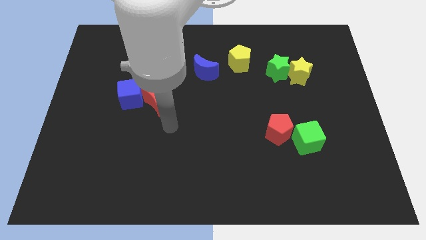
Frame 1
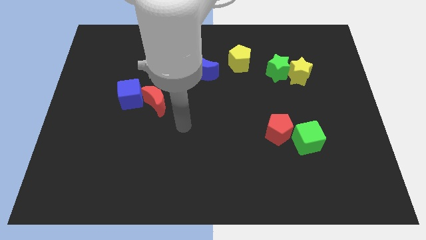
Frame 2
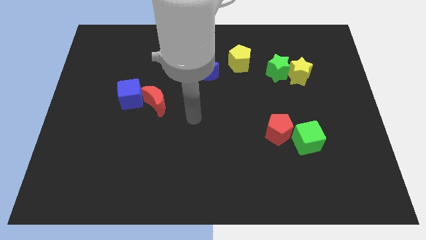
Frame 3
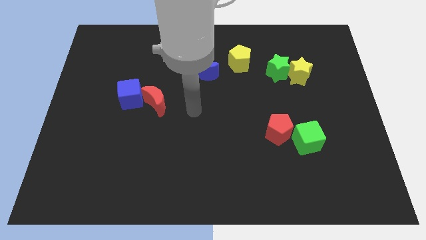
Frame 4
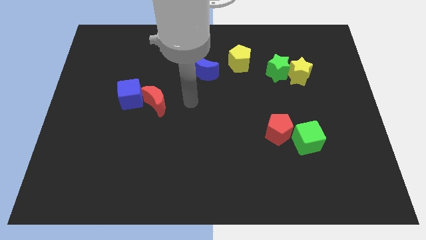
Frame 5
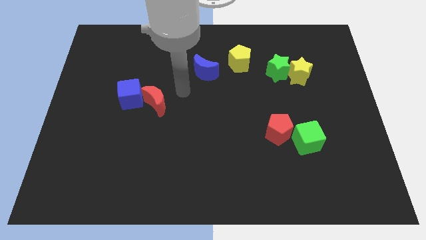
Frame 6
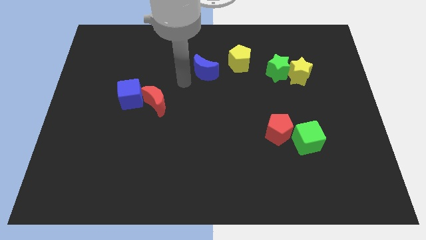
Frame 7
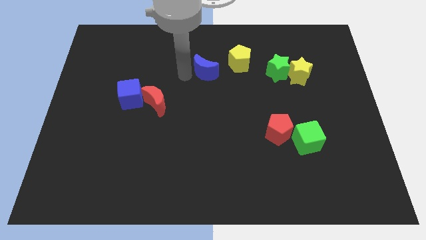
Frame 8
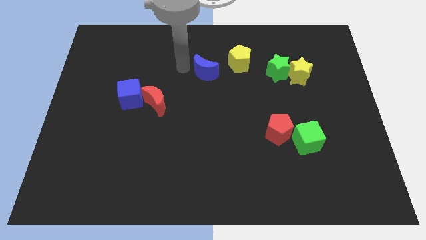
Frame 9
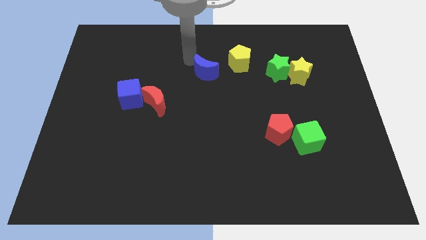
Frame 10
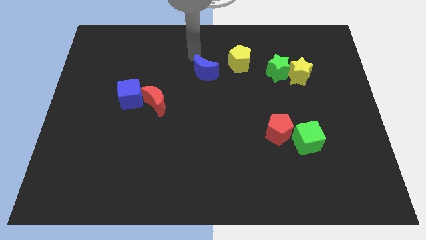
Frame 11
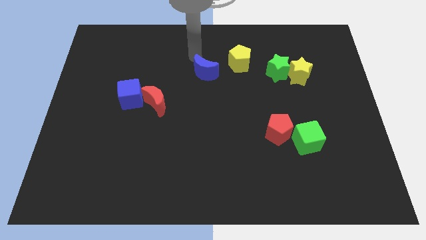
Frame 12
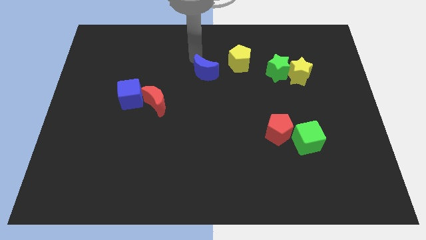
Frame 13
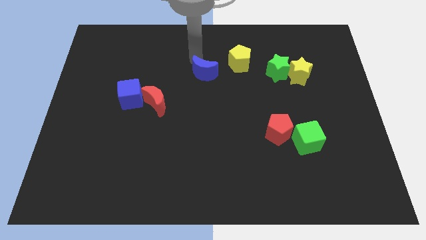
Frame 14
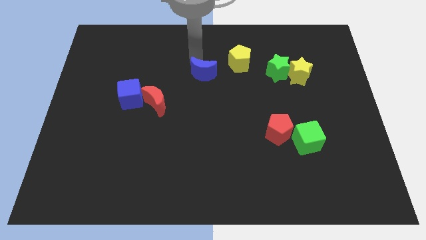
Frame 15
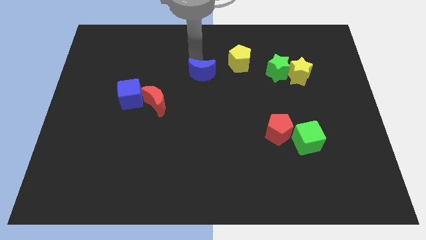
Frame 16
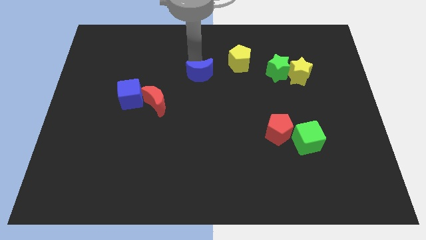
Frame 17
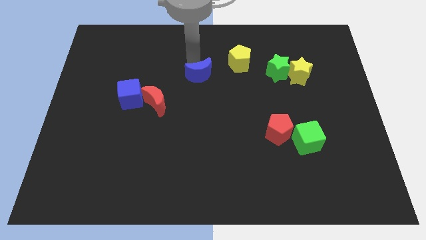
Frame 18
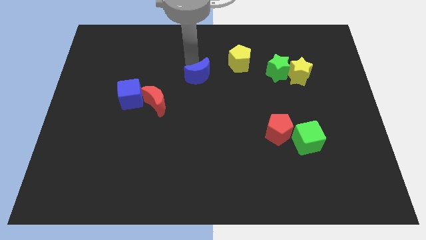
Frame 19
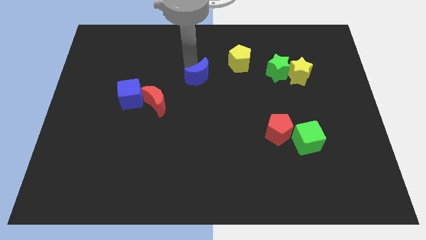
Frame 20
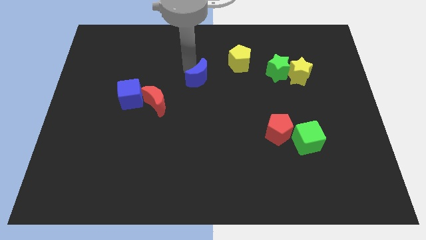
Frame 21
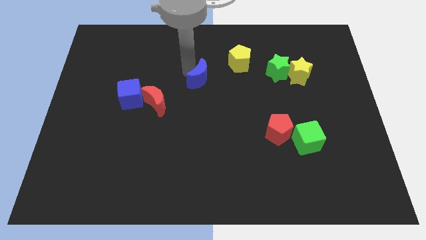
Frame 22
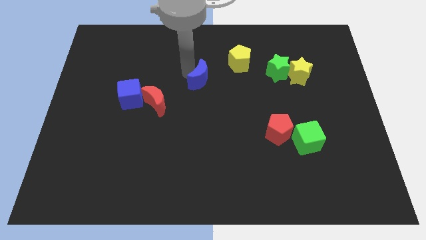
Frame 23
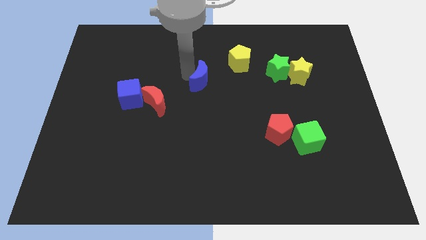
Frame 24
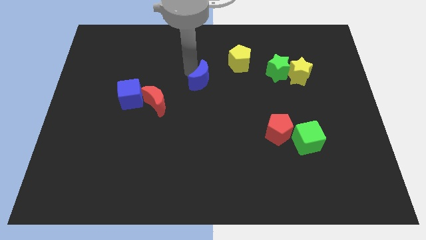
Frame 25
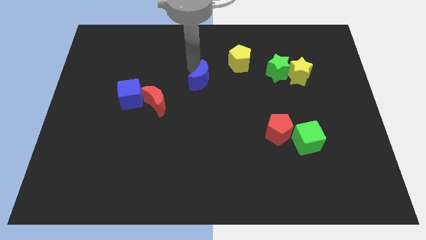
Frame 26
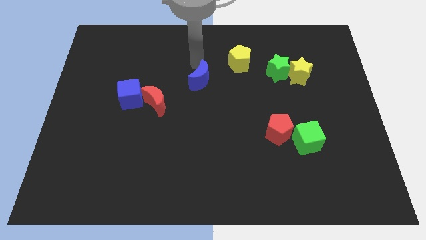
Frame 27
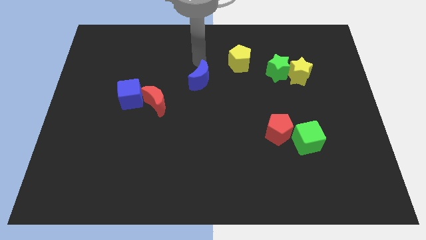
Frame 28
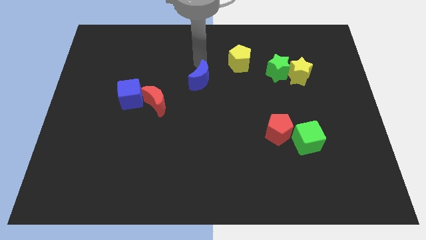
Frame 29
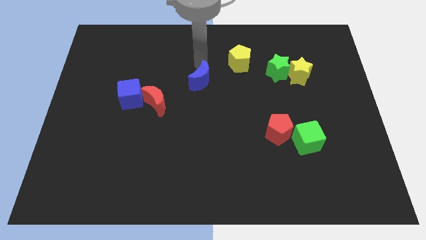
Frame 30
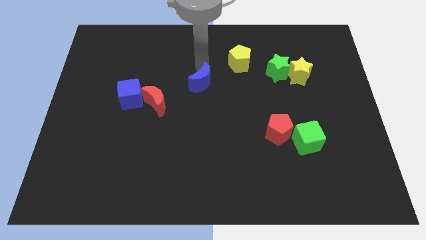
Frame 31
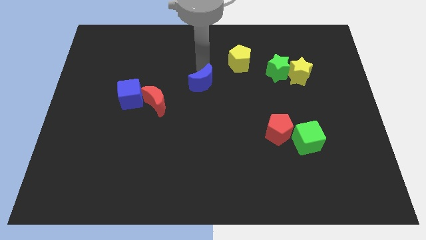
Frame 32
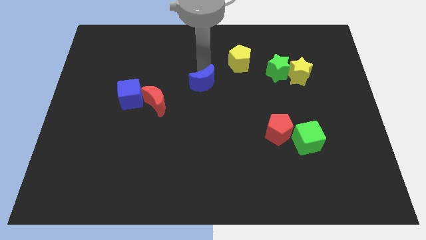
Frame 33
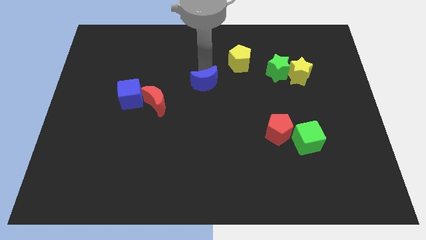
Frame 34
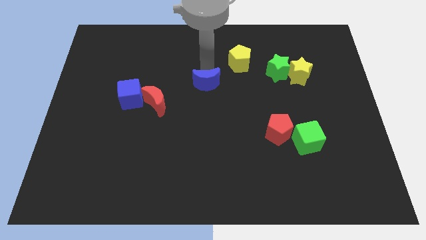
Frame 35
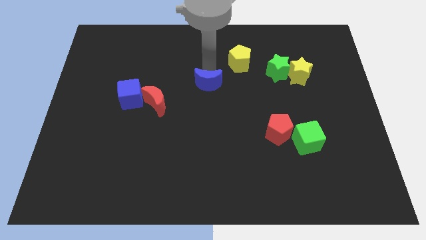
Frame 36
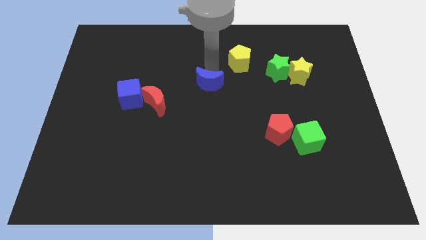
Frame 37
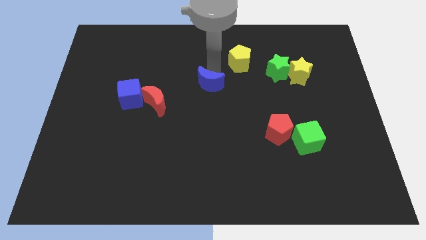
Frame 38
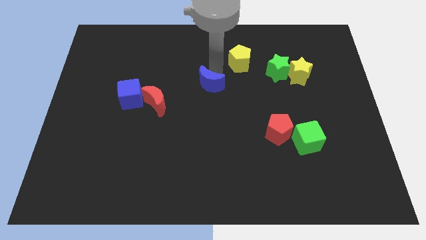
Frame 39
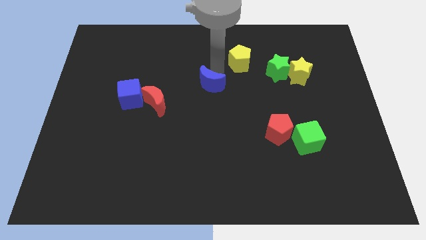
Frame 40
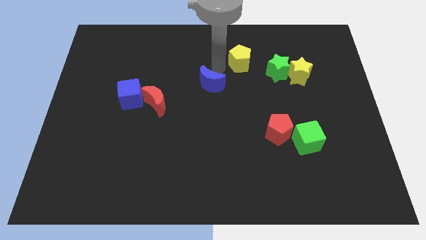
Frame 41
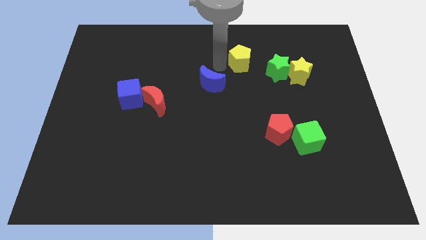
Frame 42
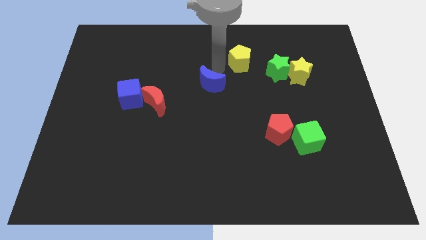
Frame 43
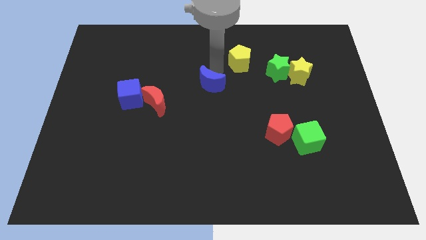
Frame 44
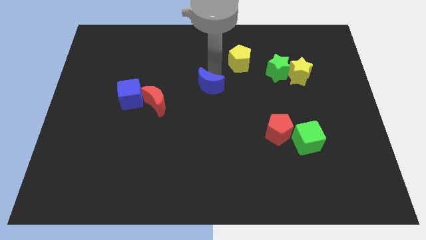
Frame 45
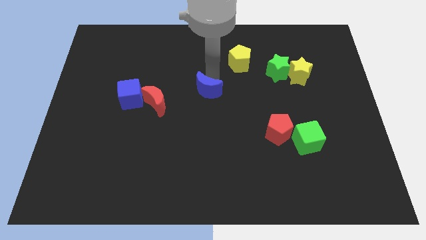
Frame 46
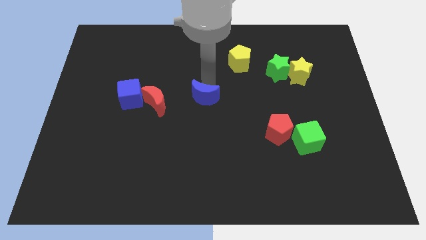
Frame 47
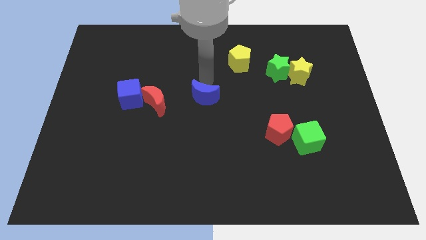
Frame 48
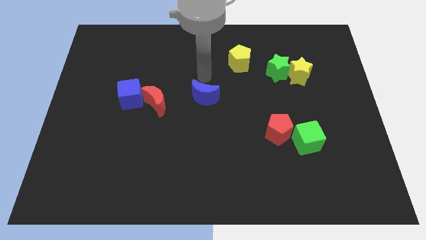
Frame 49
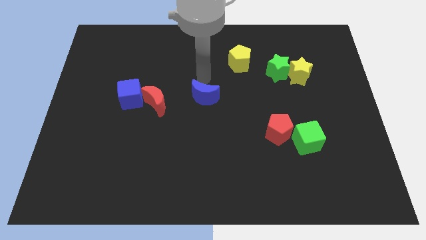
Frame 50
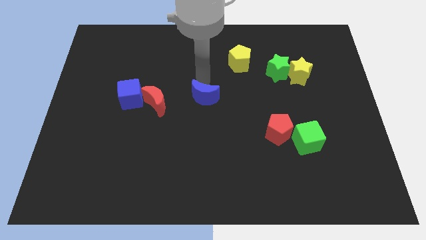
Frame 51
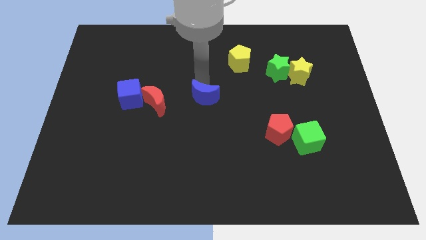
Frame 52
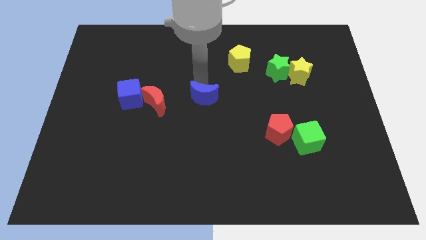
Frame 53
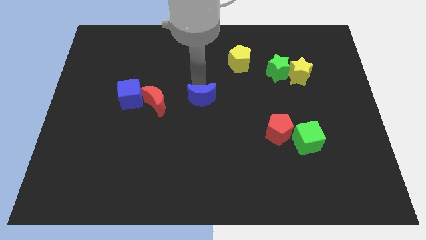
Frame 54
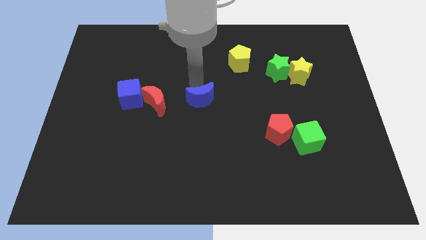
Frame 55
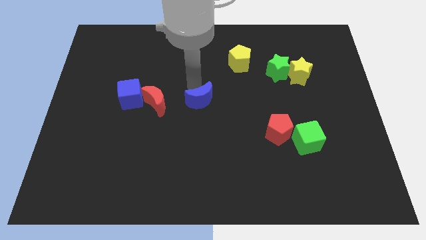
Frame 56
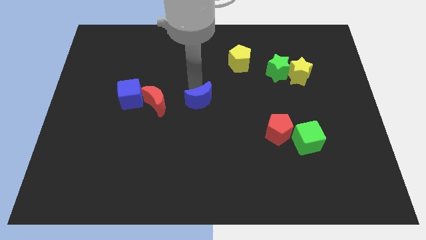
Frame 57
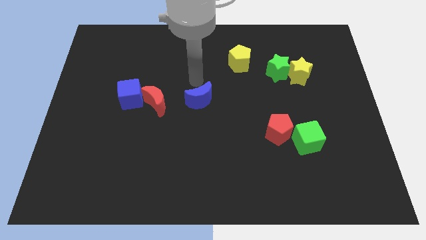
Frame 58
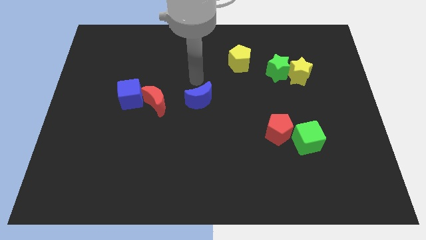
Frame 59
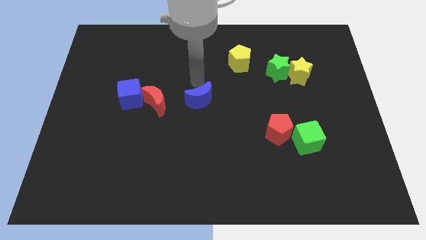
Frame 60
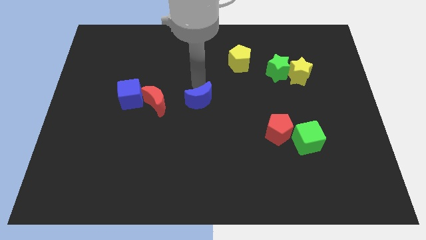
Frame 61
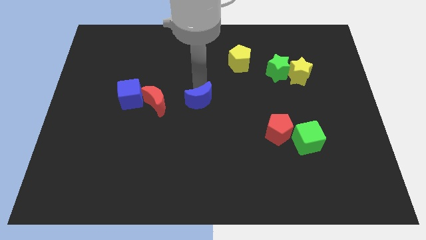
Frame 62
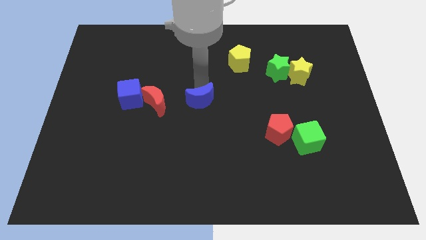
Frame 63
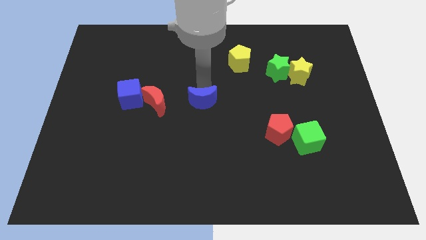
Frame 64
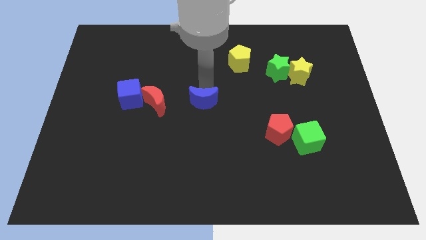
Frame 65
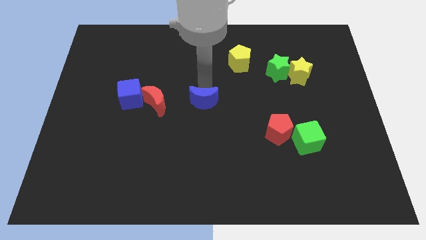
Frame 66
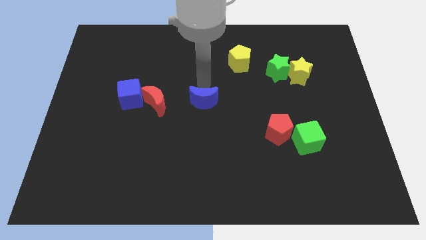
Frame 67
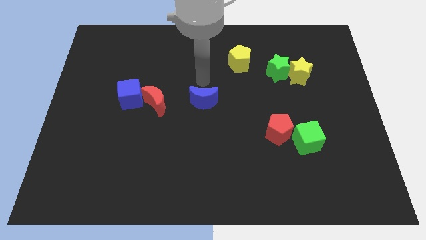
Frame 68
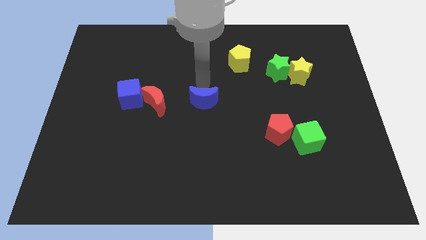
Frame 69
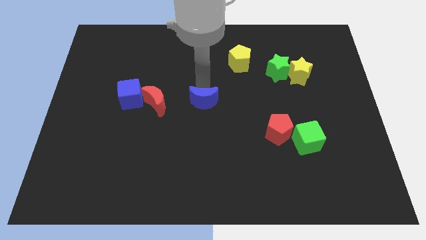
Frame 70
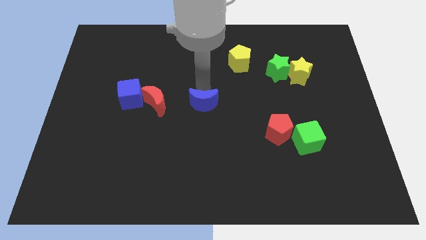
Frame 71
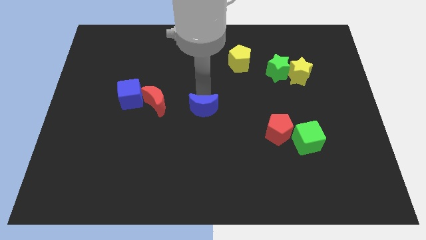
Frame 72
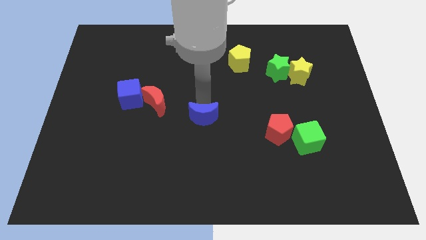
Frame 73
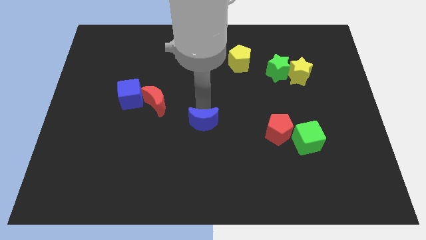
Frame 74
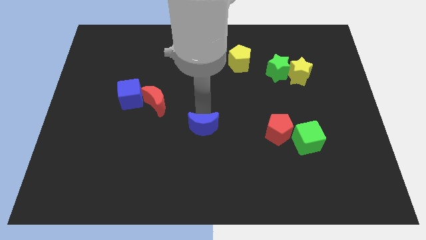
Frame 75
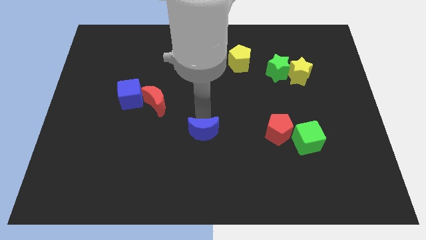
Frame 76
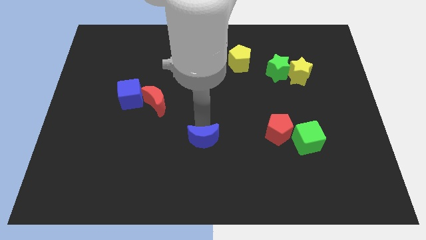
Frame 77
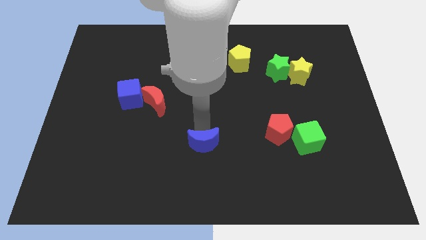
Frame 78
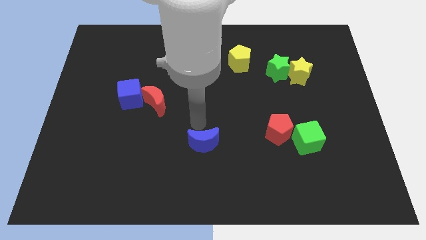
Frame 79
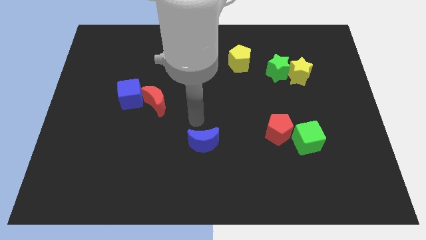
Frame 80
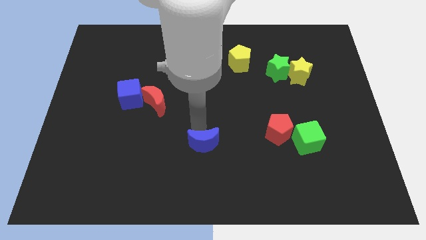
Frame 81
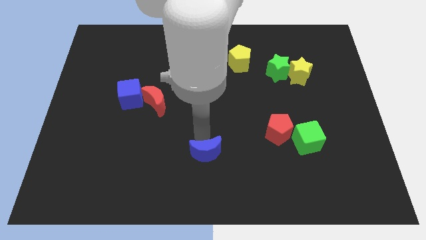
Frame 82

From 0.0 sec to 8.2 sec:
put the blue moon to the bottom side
